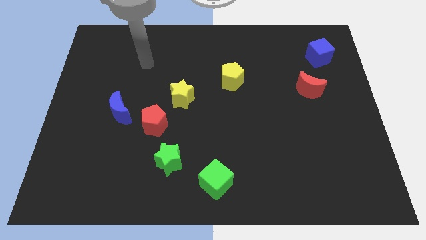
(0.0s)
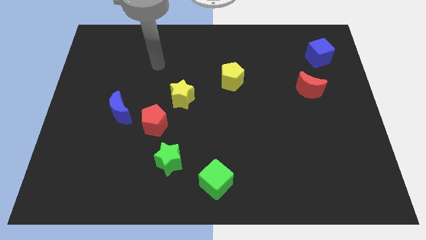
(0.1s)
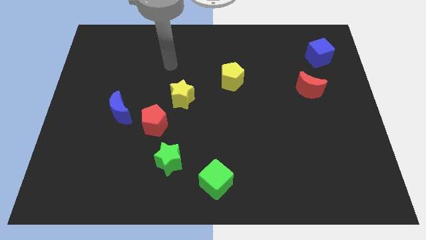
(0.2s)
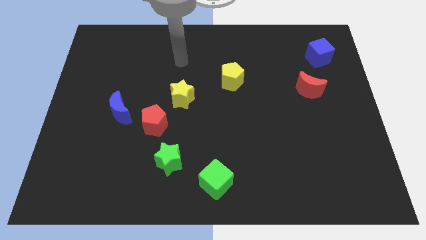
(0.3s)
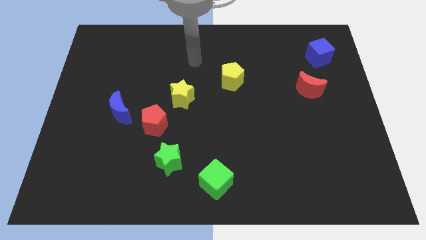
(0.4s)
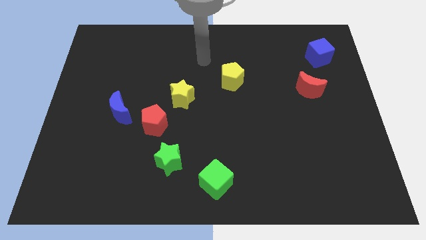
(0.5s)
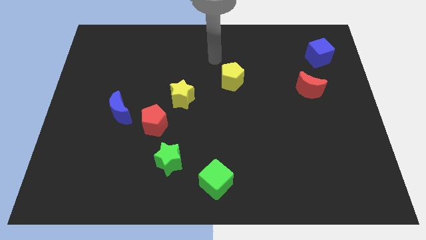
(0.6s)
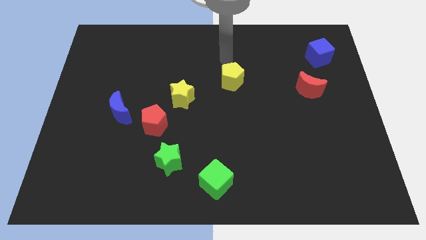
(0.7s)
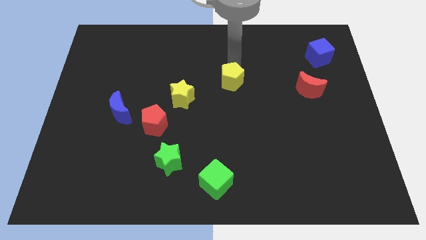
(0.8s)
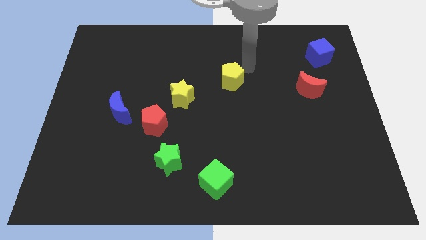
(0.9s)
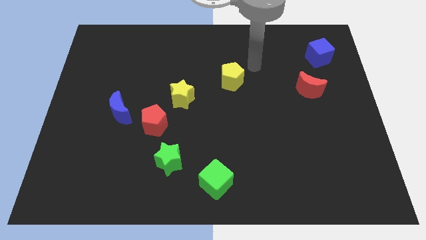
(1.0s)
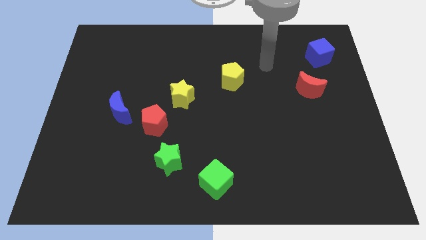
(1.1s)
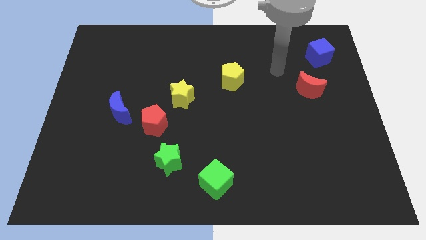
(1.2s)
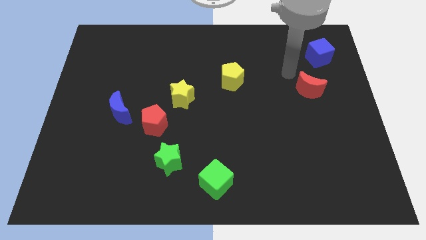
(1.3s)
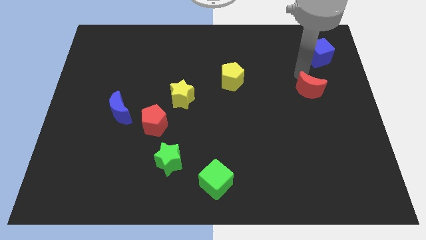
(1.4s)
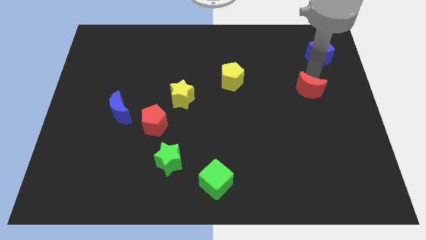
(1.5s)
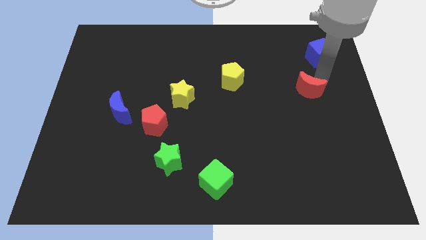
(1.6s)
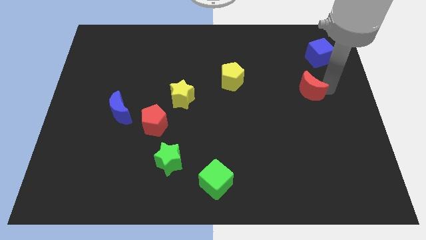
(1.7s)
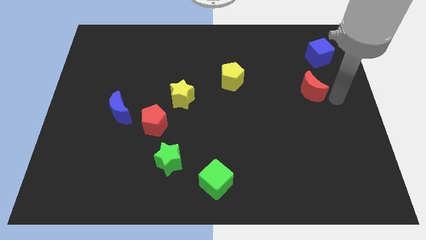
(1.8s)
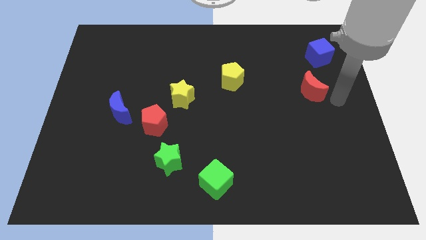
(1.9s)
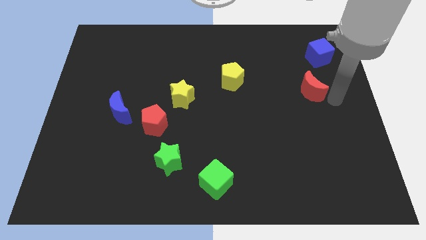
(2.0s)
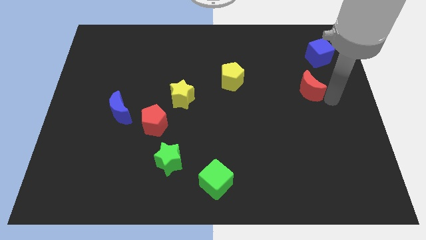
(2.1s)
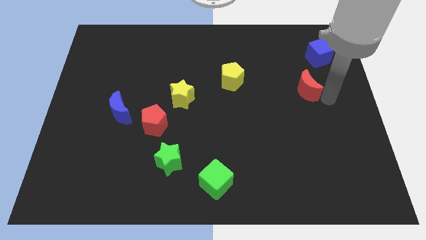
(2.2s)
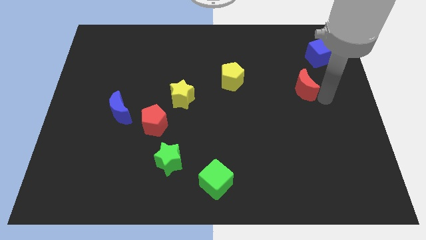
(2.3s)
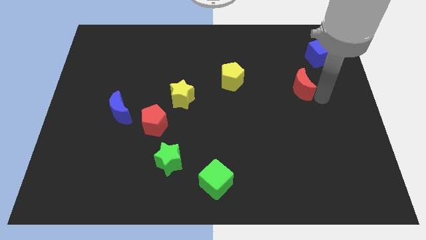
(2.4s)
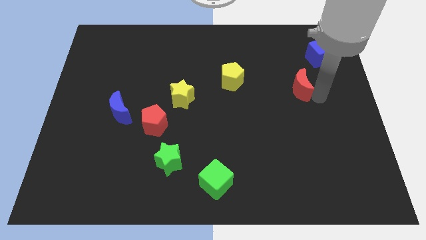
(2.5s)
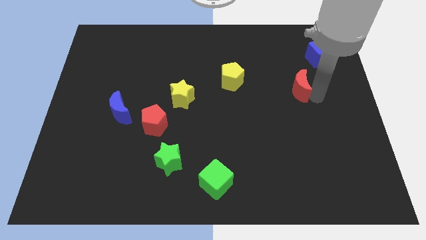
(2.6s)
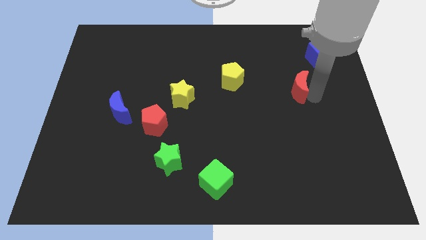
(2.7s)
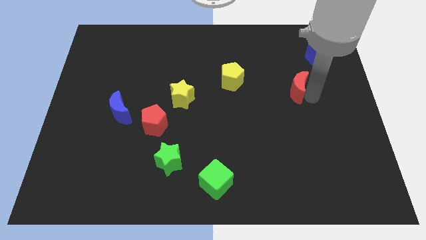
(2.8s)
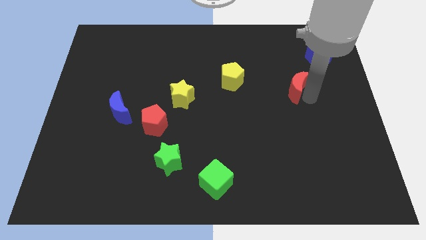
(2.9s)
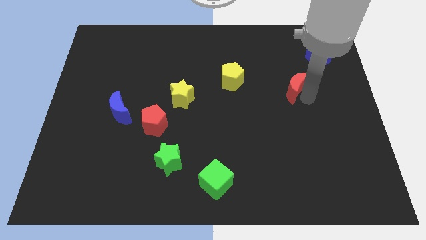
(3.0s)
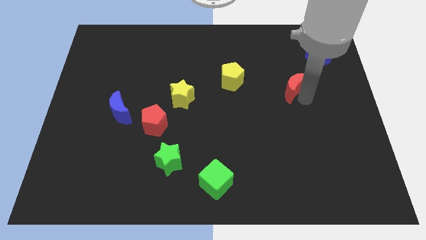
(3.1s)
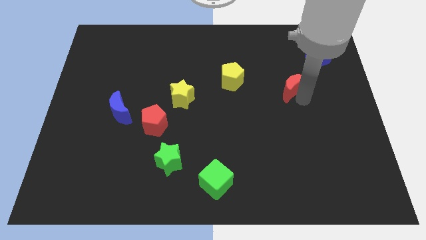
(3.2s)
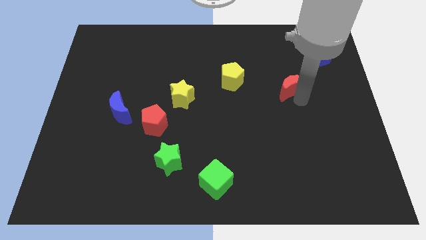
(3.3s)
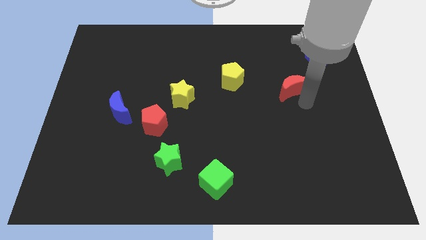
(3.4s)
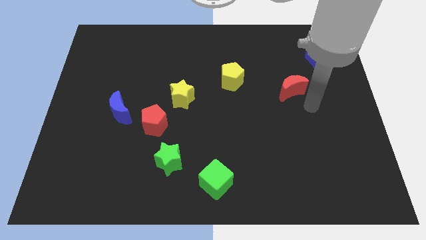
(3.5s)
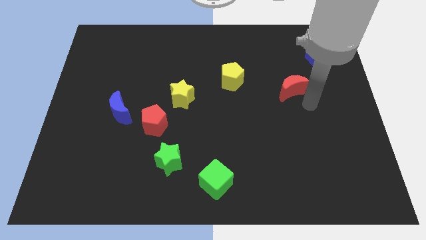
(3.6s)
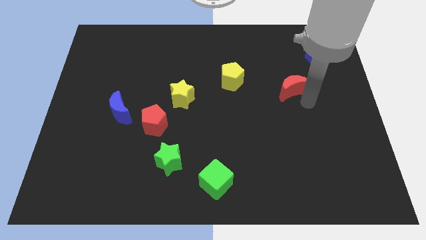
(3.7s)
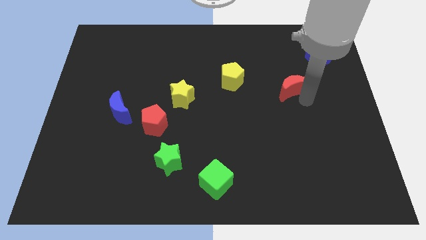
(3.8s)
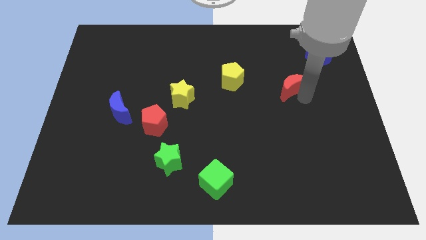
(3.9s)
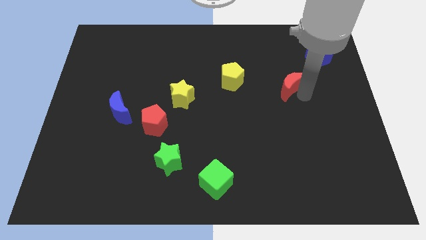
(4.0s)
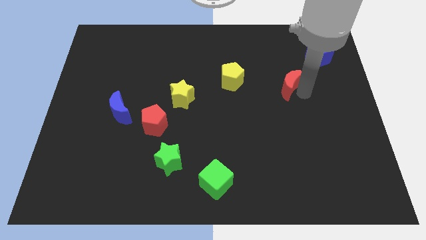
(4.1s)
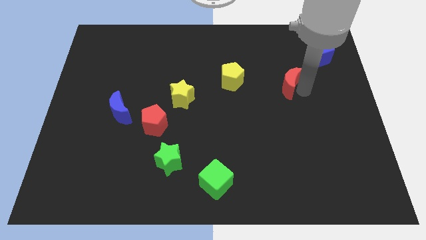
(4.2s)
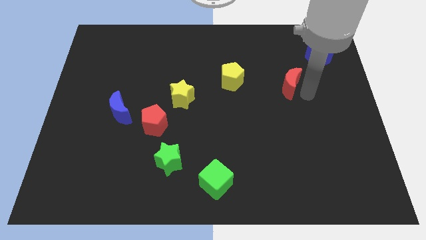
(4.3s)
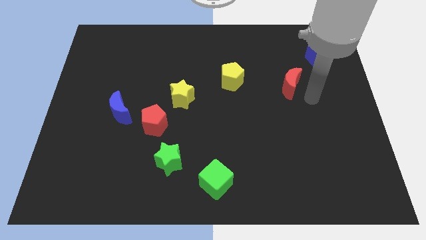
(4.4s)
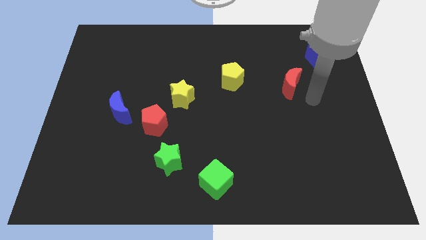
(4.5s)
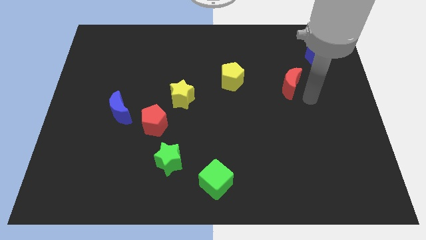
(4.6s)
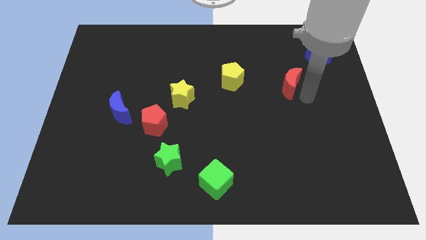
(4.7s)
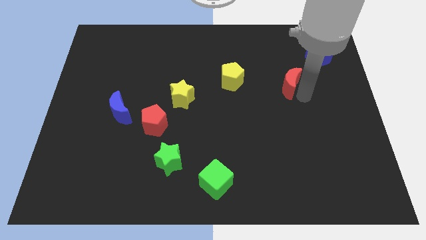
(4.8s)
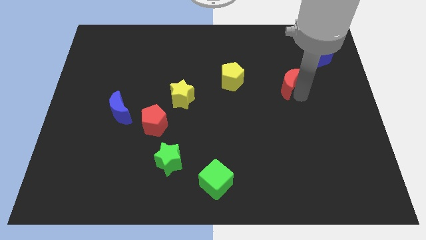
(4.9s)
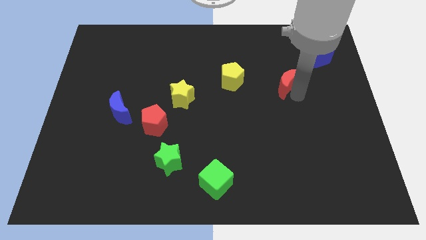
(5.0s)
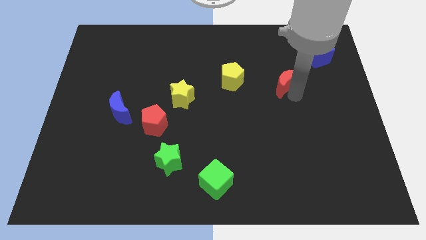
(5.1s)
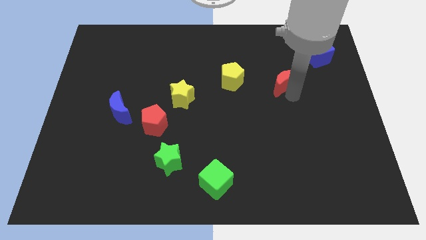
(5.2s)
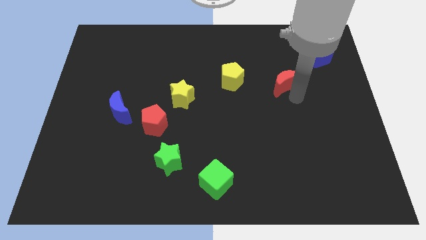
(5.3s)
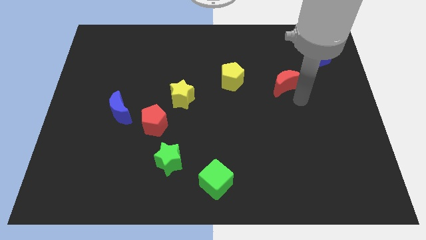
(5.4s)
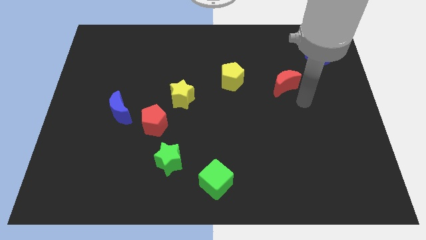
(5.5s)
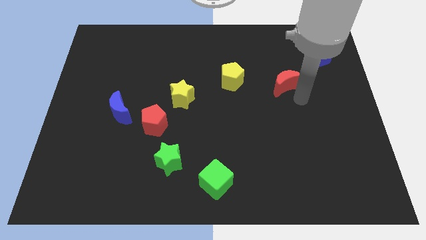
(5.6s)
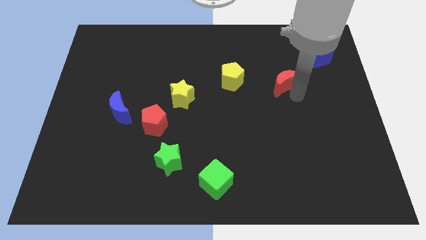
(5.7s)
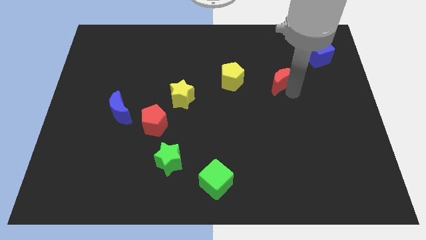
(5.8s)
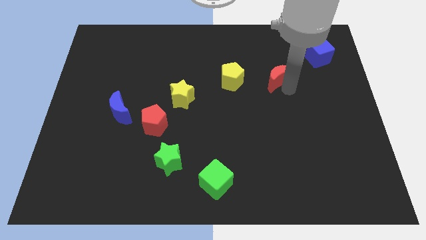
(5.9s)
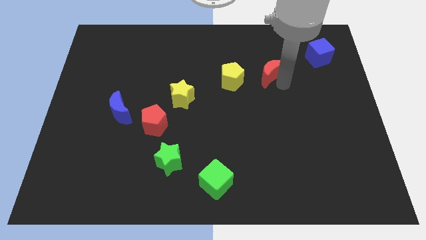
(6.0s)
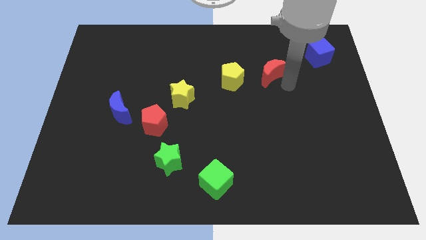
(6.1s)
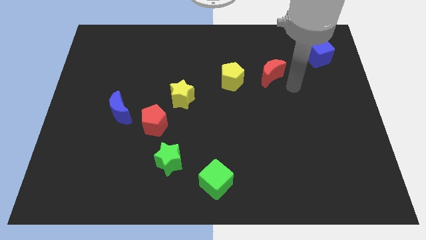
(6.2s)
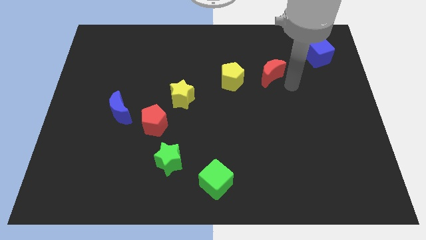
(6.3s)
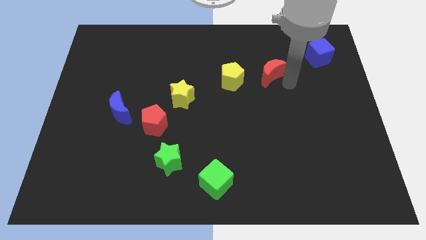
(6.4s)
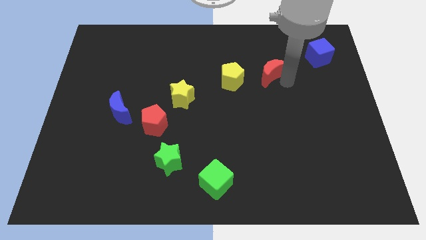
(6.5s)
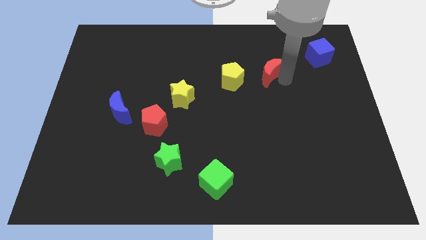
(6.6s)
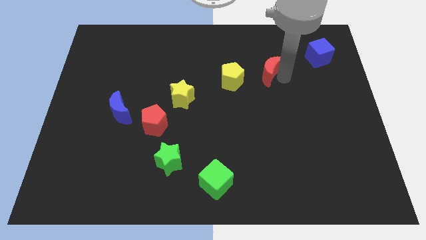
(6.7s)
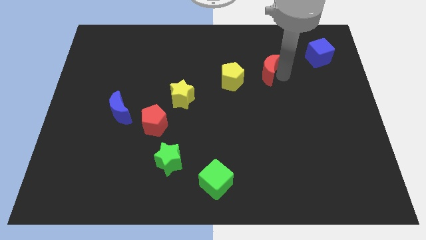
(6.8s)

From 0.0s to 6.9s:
push the red moon to the top right of the yellow pentagon
